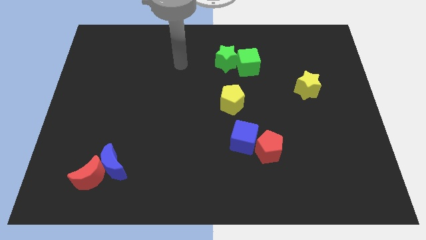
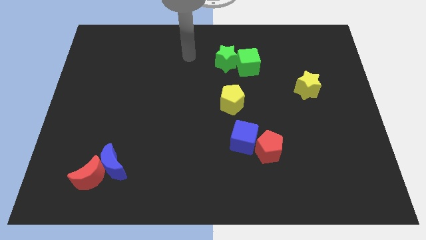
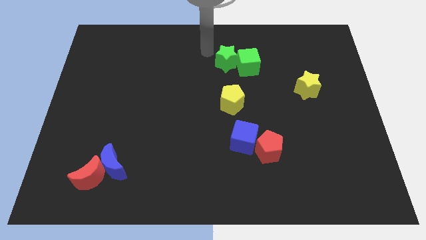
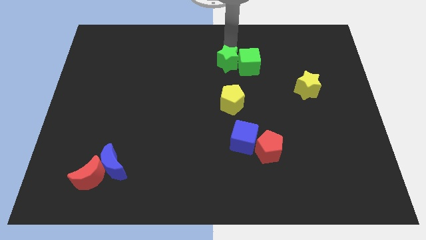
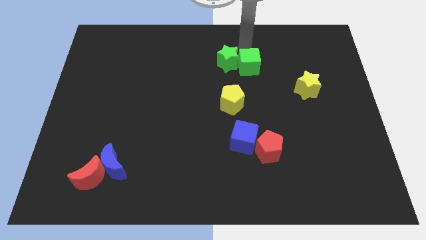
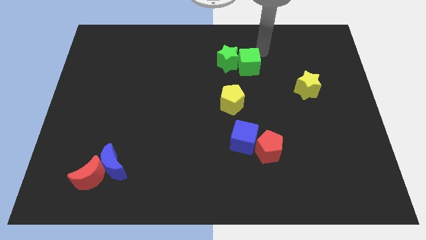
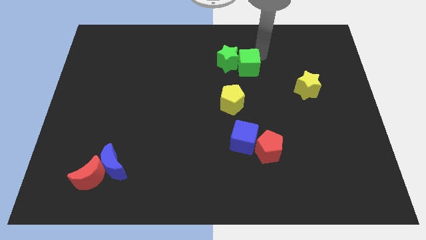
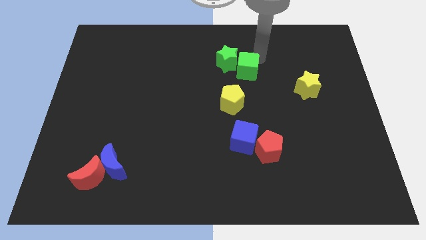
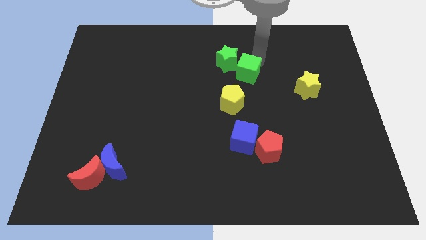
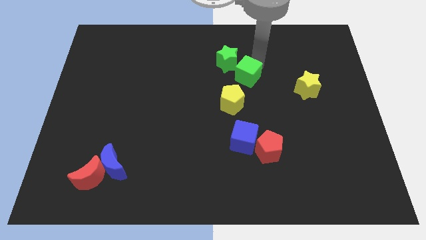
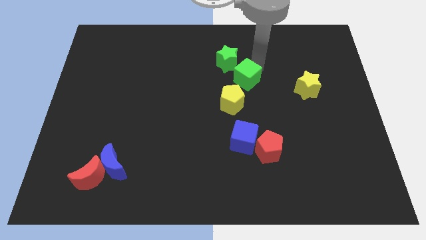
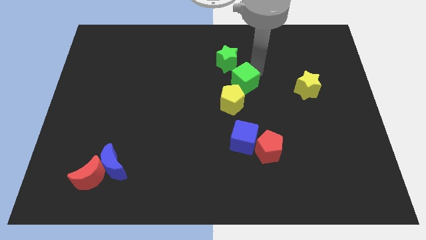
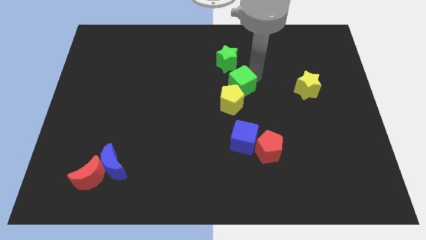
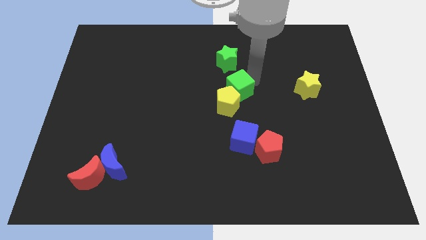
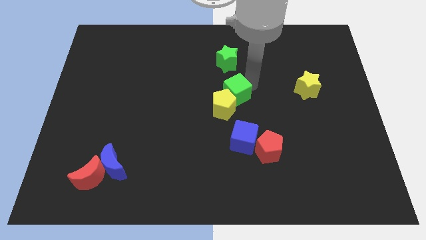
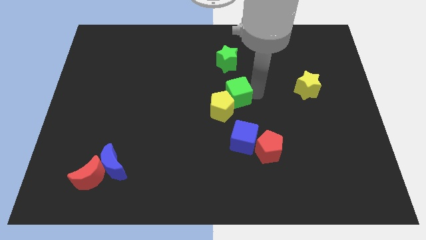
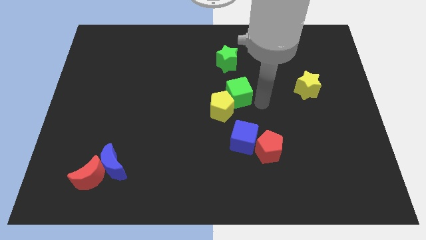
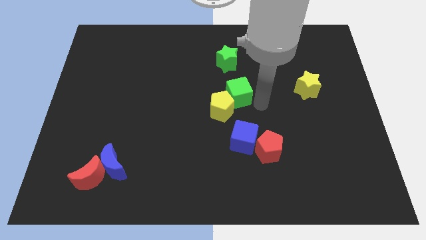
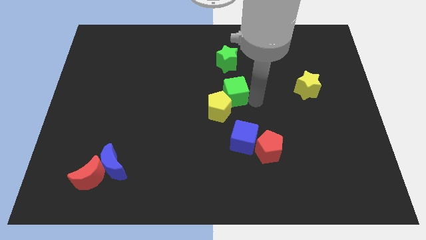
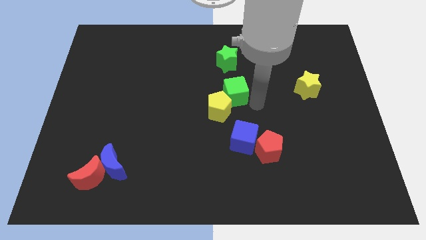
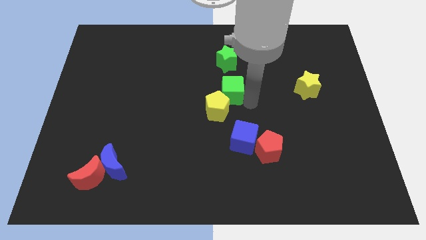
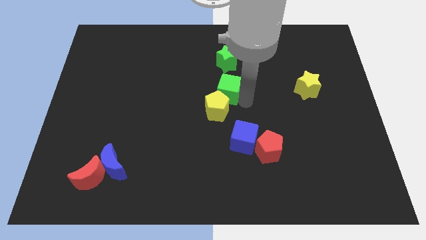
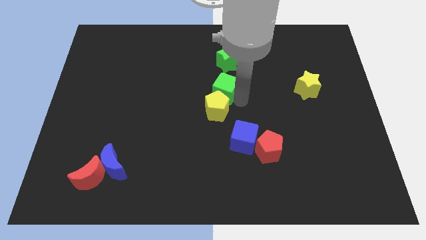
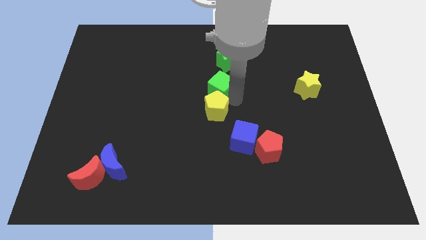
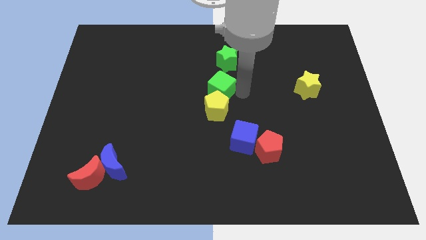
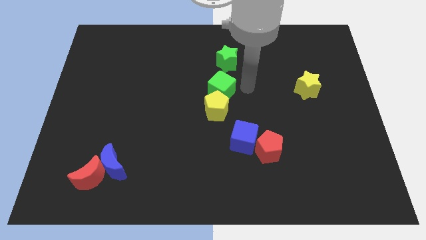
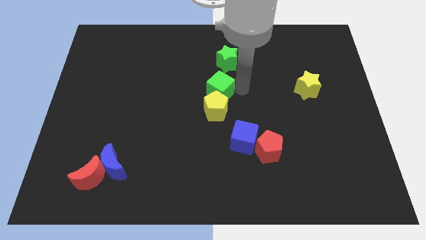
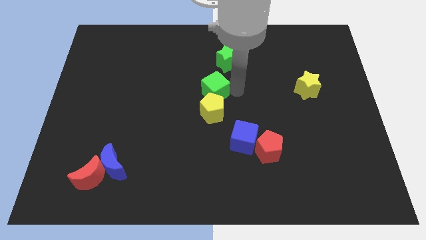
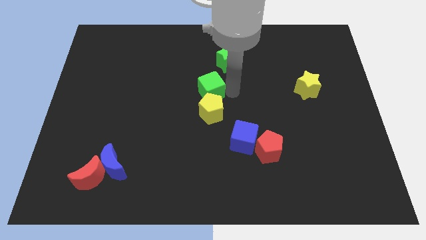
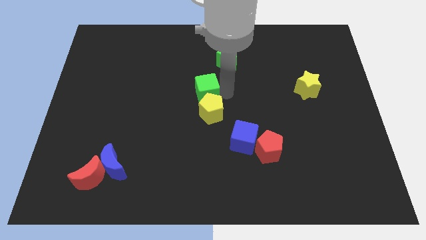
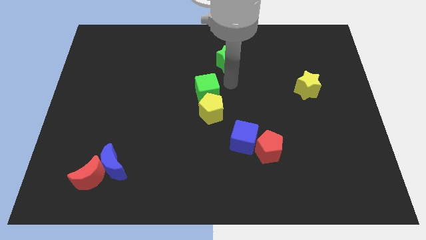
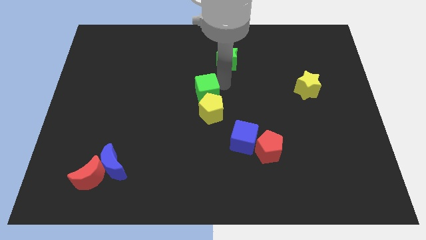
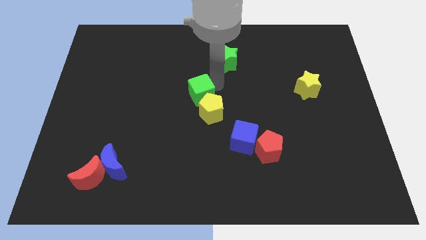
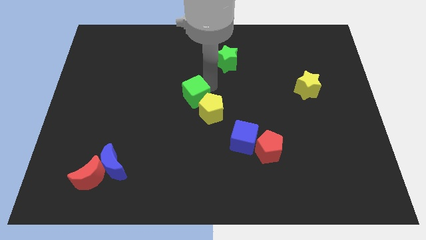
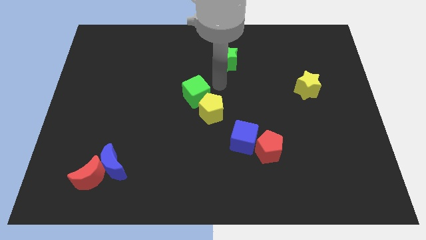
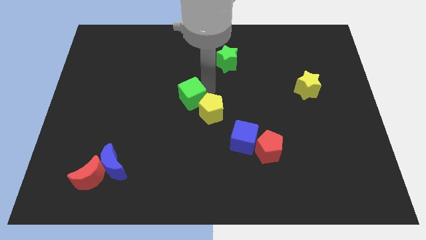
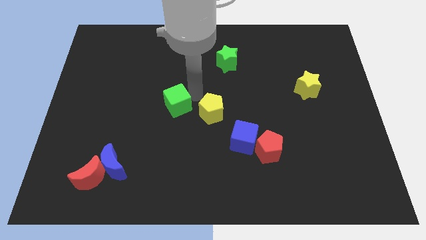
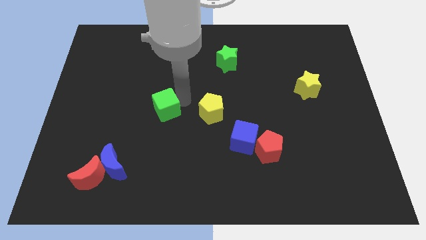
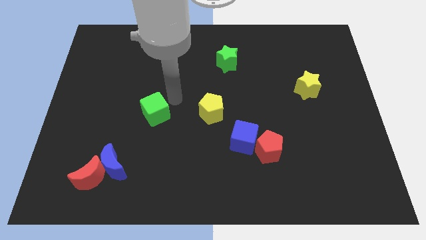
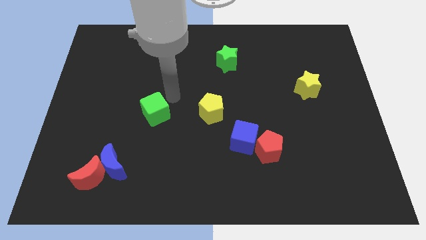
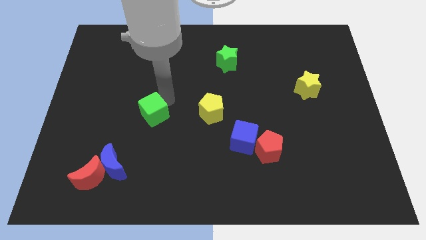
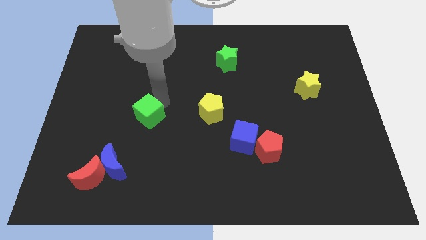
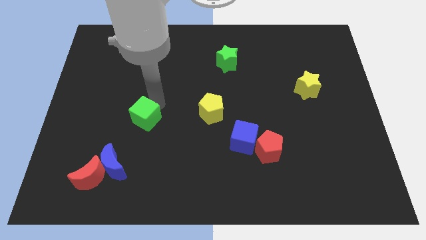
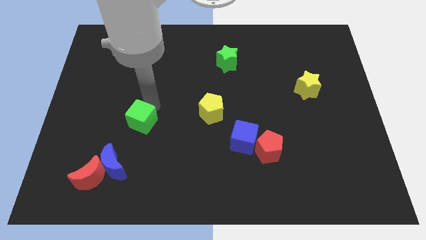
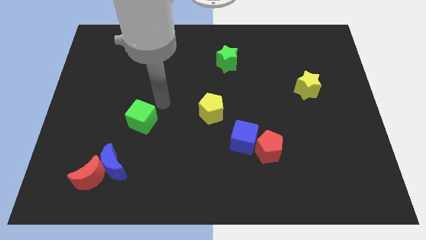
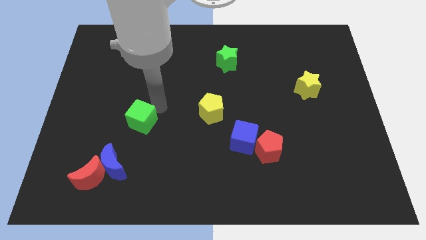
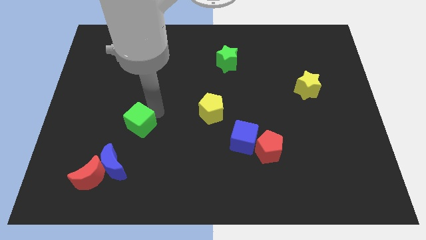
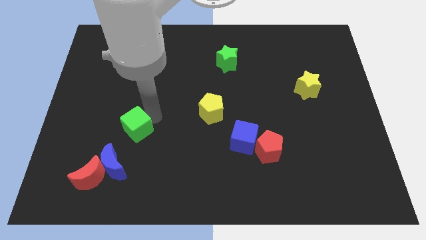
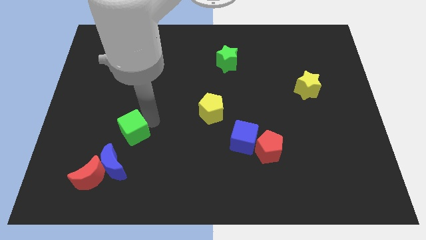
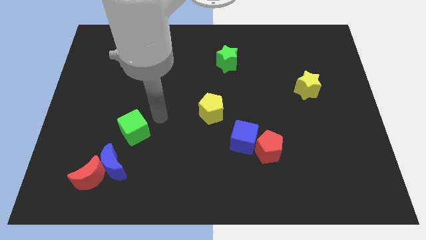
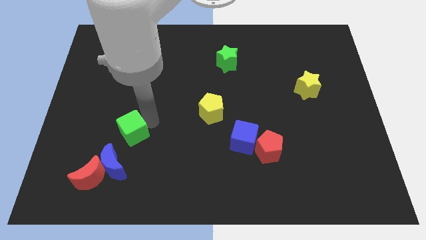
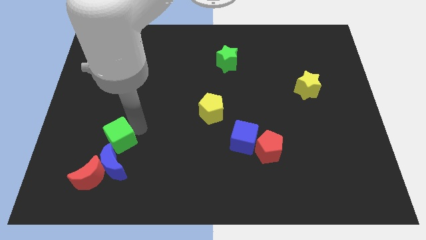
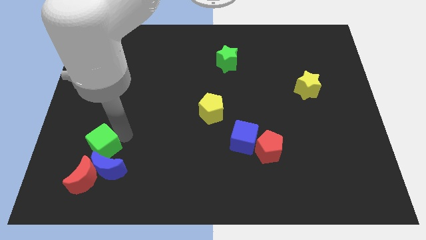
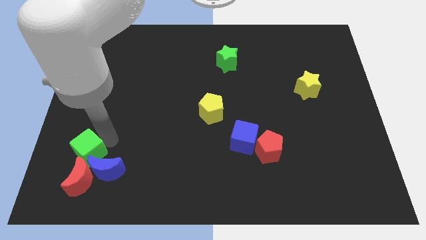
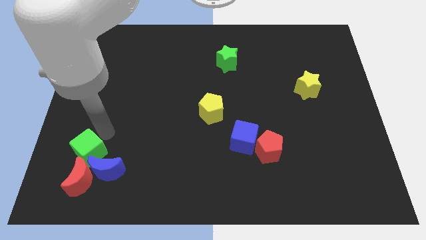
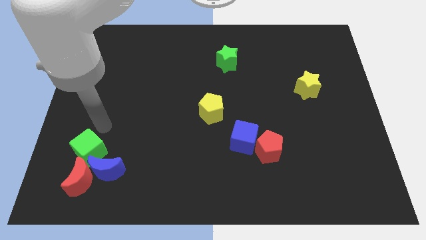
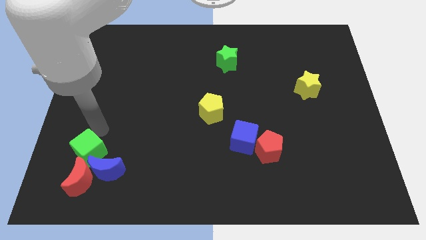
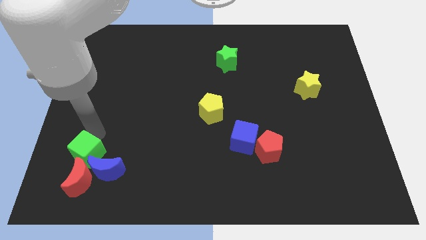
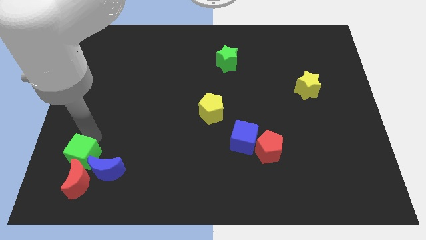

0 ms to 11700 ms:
move the green cube to the red moon

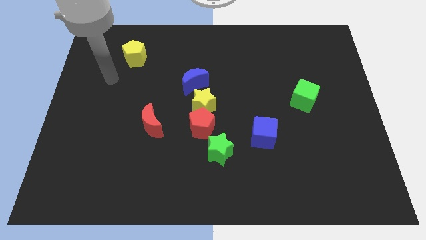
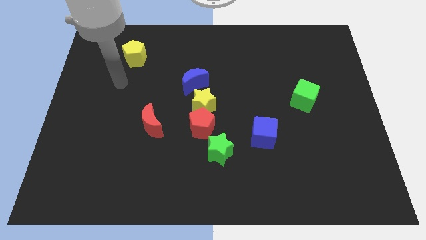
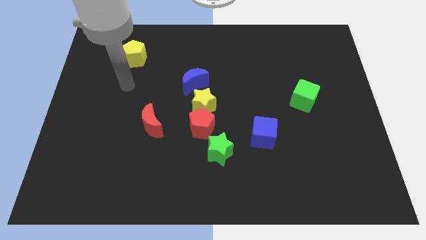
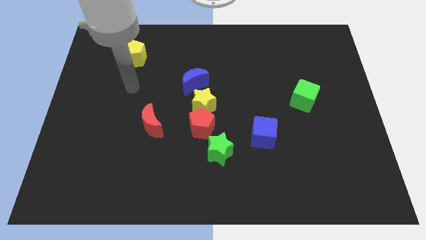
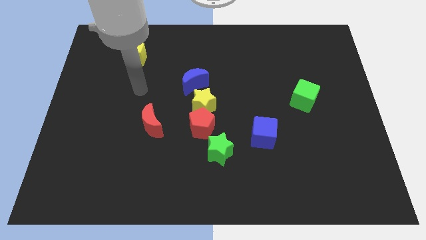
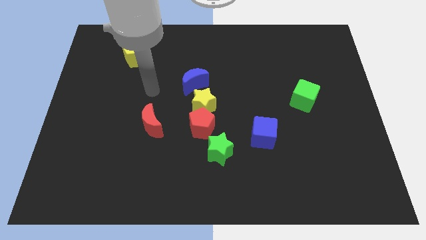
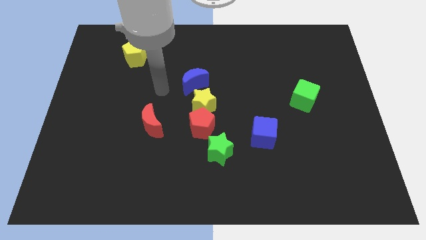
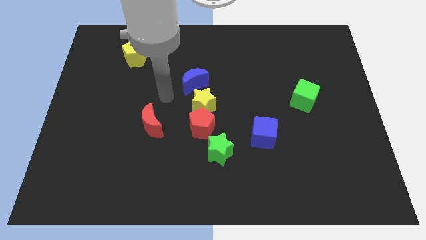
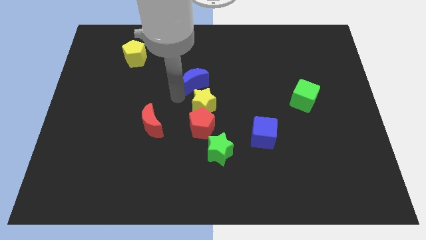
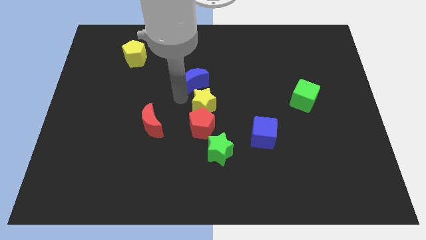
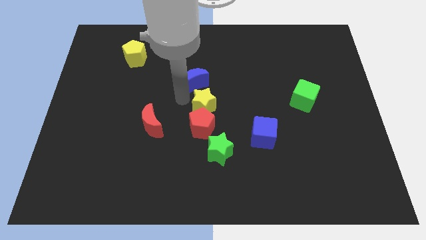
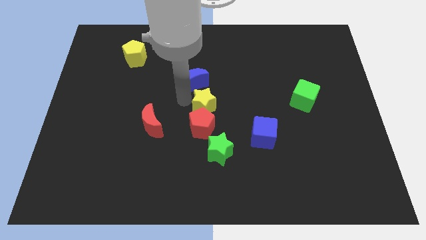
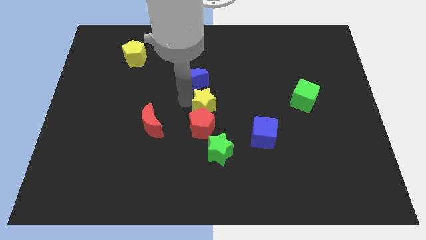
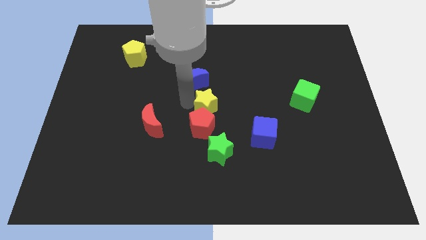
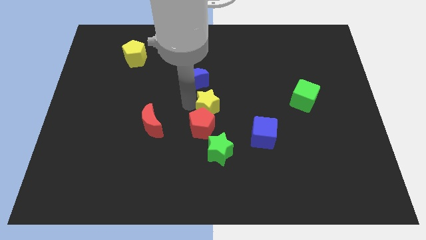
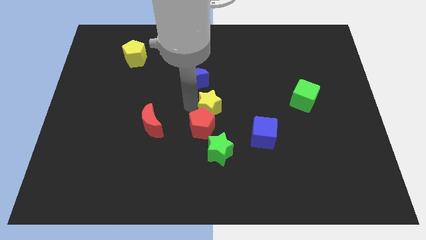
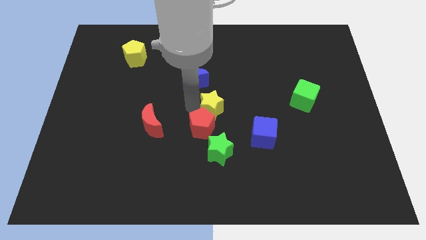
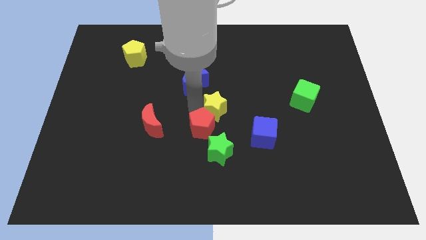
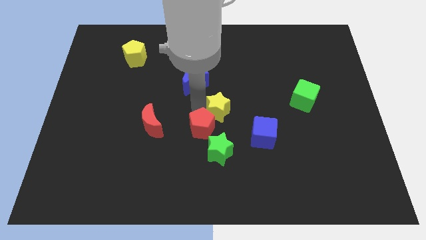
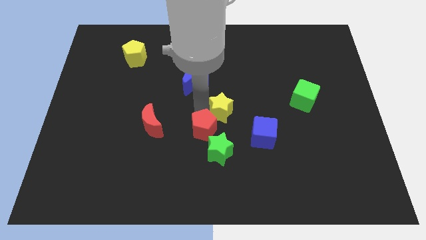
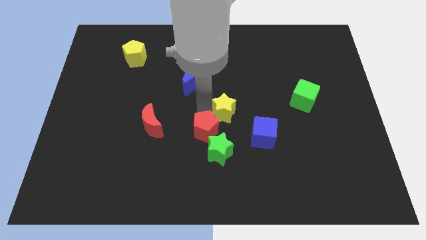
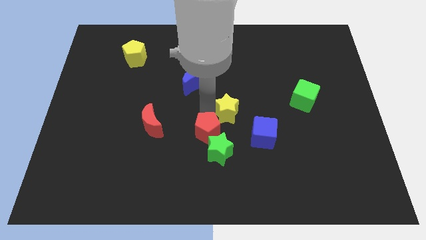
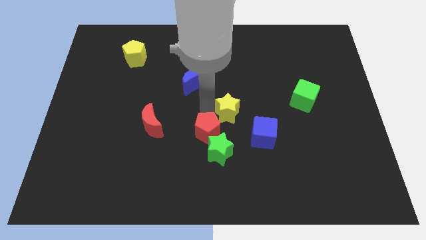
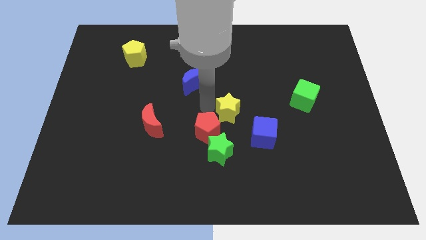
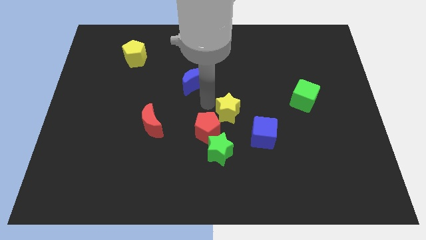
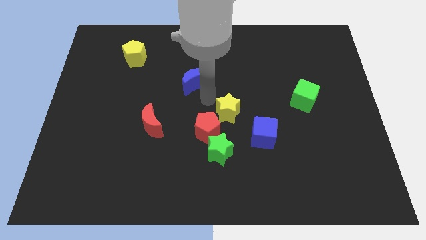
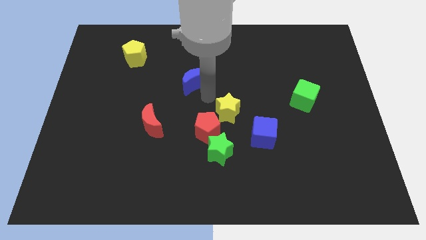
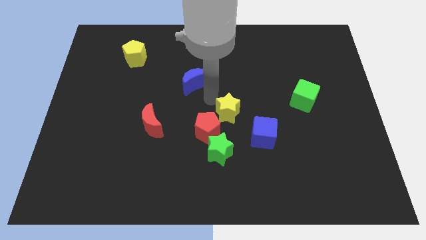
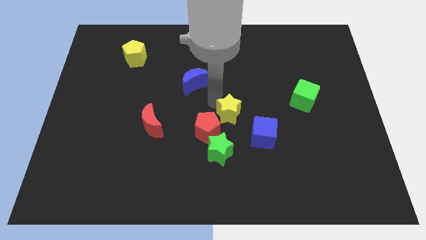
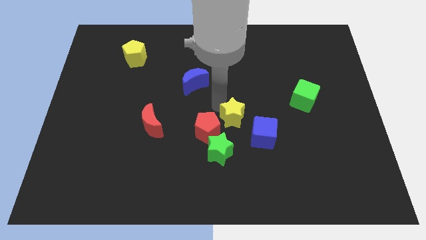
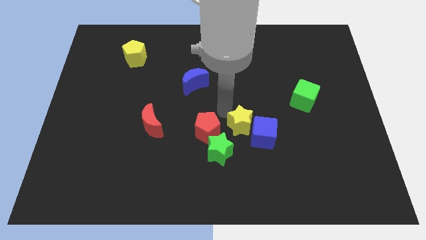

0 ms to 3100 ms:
push the yellow star next to the blue cube
